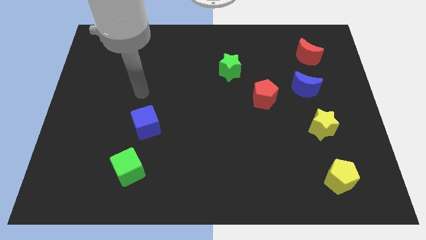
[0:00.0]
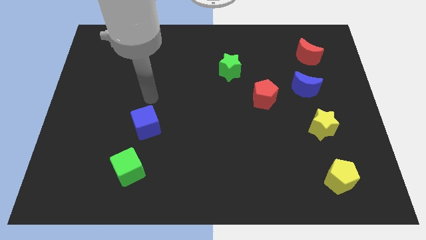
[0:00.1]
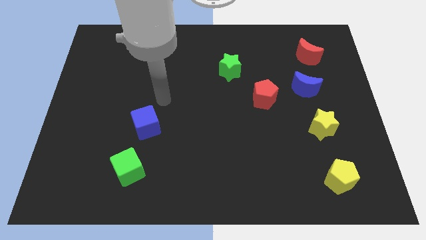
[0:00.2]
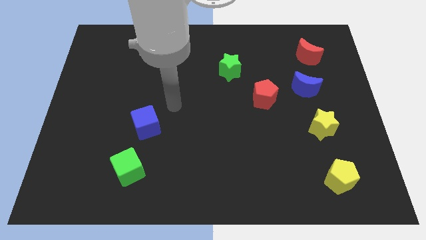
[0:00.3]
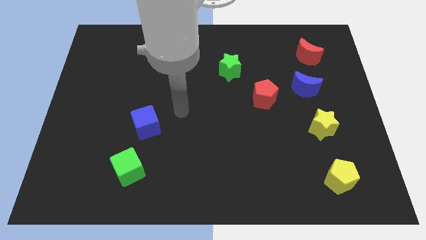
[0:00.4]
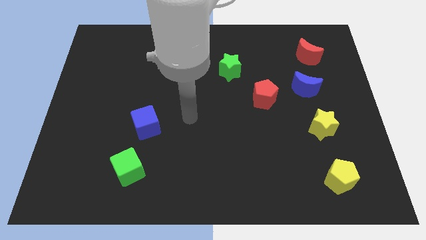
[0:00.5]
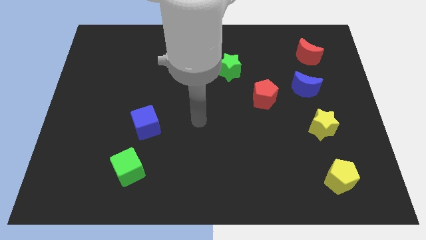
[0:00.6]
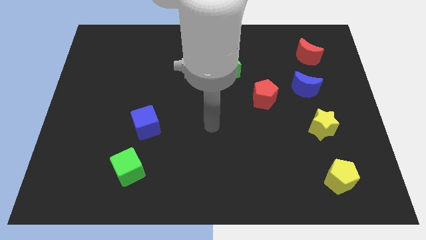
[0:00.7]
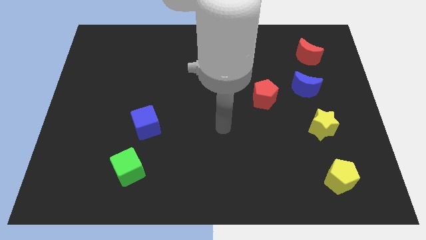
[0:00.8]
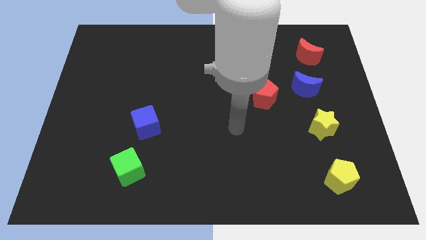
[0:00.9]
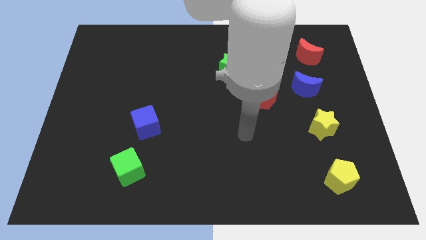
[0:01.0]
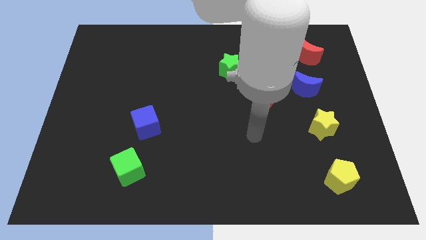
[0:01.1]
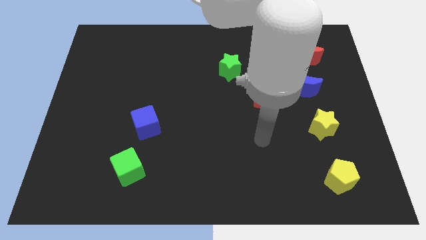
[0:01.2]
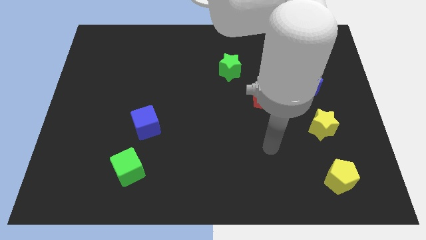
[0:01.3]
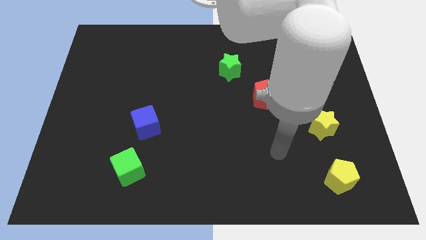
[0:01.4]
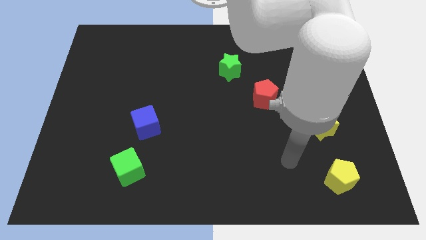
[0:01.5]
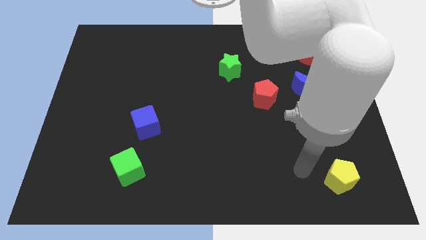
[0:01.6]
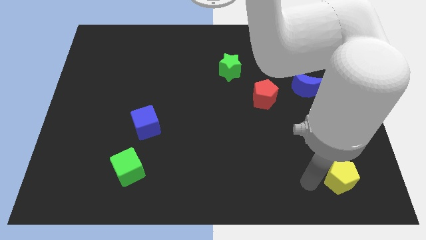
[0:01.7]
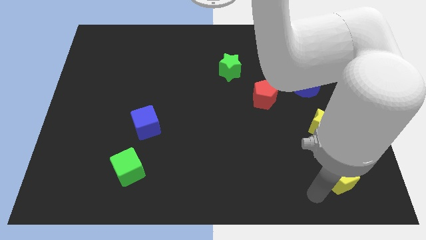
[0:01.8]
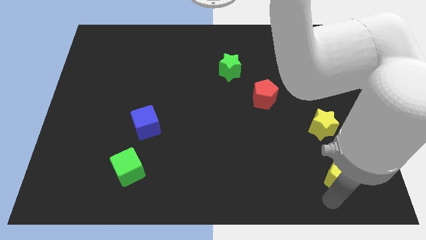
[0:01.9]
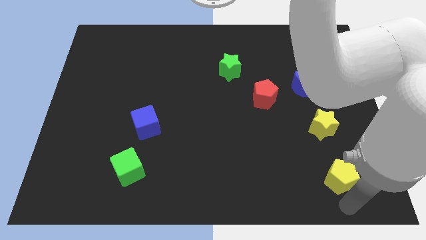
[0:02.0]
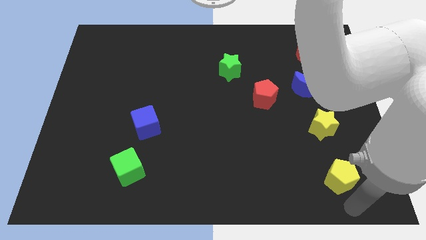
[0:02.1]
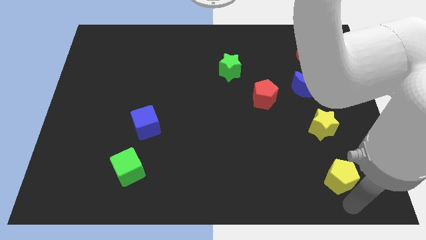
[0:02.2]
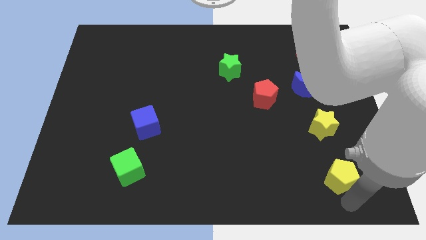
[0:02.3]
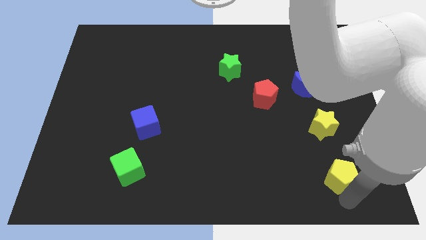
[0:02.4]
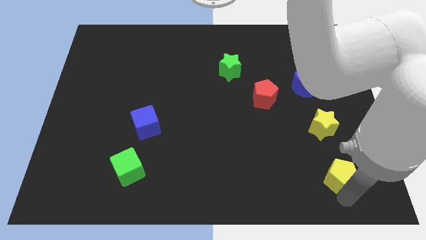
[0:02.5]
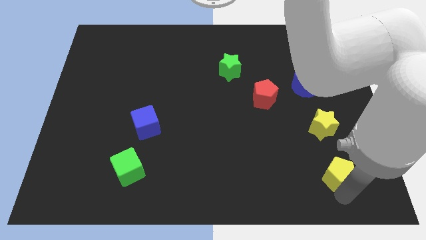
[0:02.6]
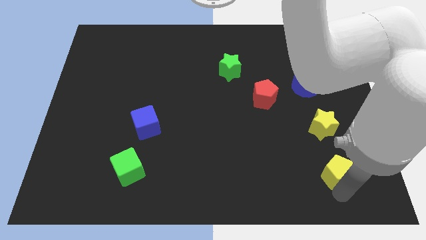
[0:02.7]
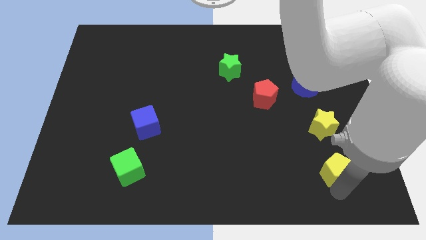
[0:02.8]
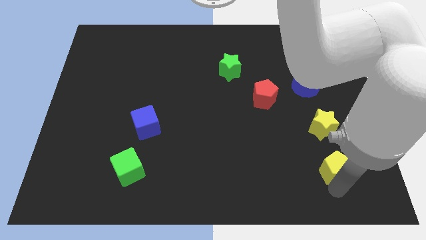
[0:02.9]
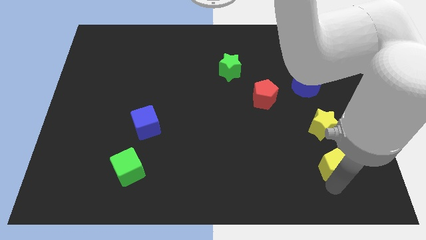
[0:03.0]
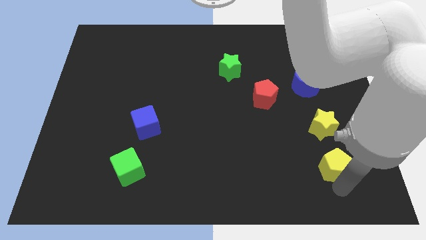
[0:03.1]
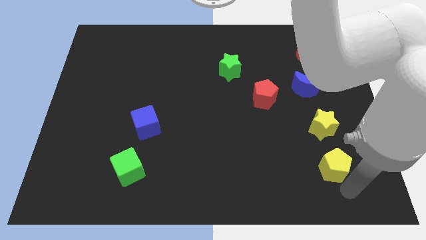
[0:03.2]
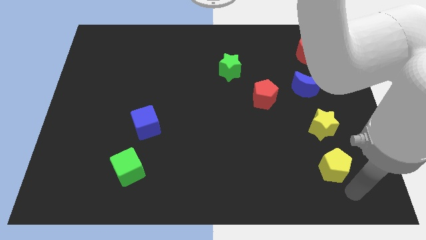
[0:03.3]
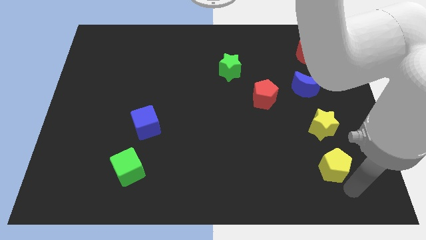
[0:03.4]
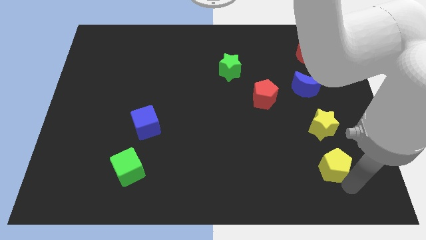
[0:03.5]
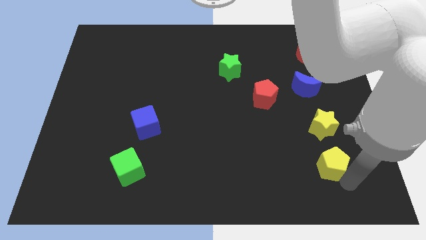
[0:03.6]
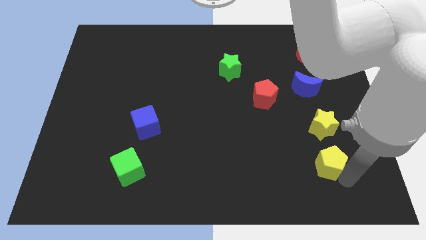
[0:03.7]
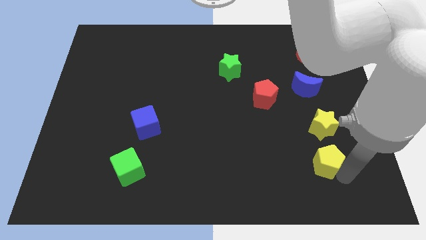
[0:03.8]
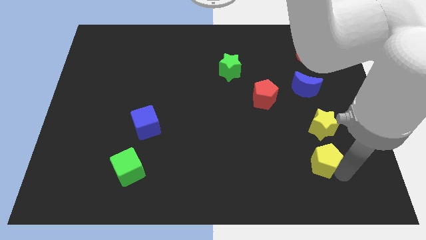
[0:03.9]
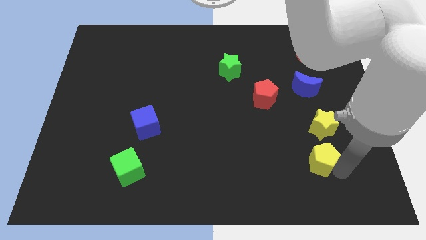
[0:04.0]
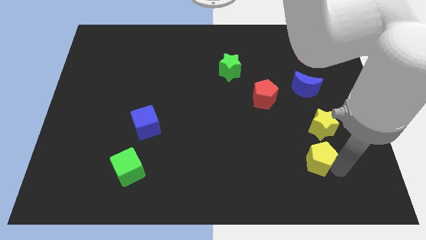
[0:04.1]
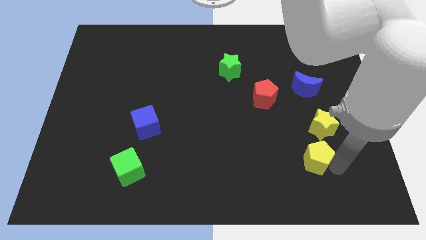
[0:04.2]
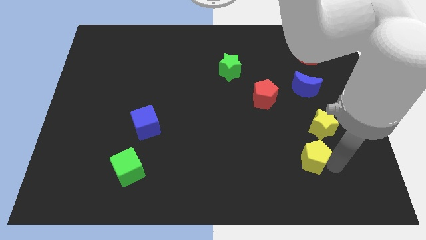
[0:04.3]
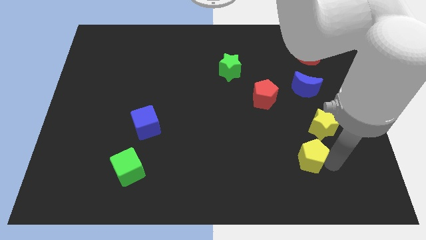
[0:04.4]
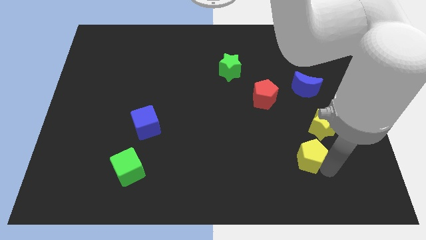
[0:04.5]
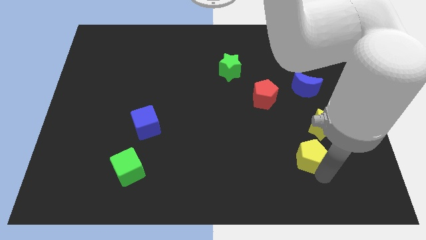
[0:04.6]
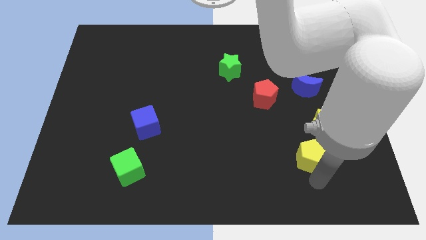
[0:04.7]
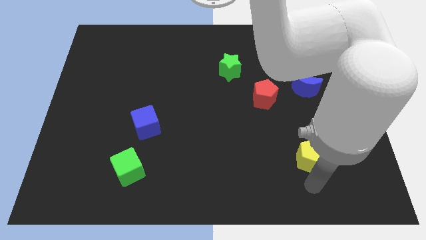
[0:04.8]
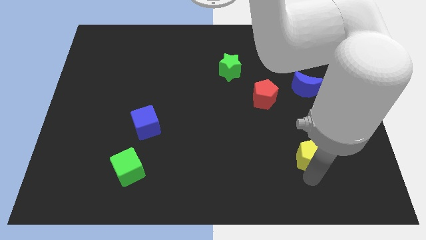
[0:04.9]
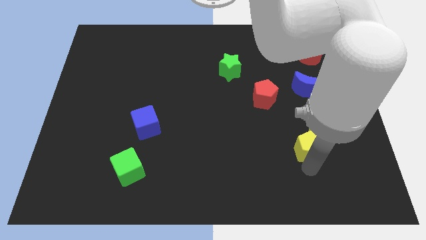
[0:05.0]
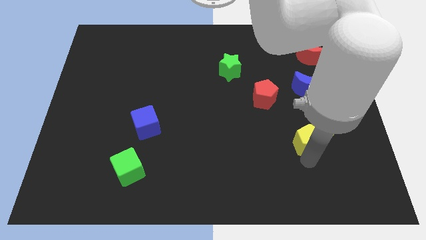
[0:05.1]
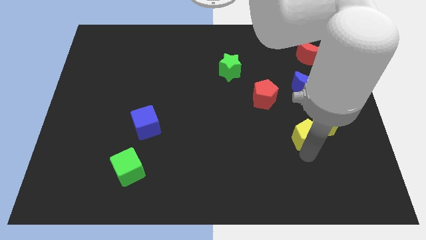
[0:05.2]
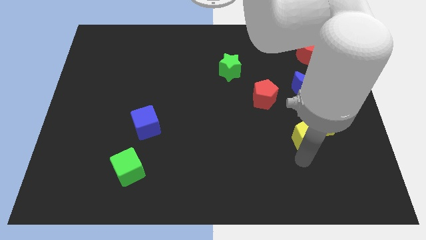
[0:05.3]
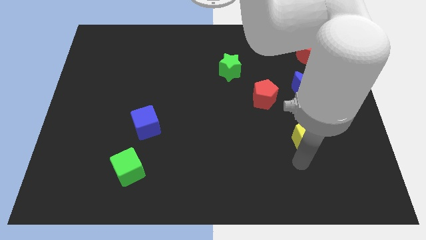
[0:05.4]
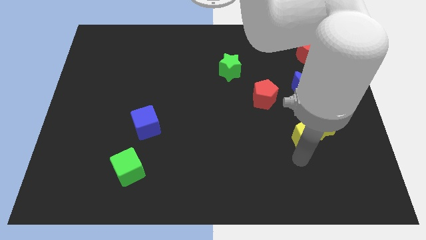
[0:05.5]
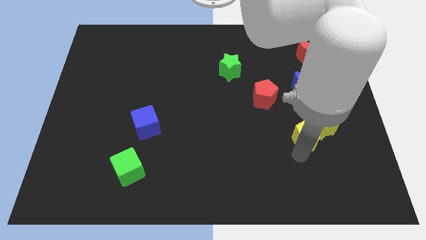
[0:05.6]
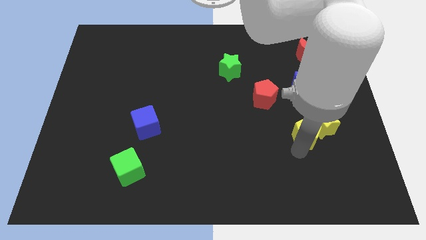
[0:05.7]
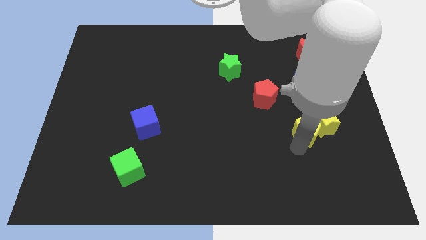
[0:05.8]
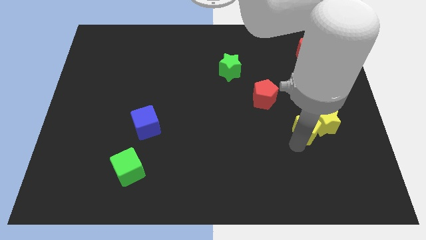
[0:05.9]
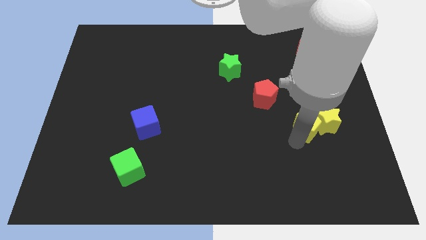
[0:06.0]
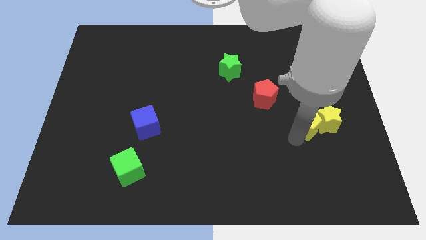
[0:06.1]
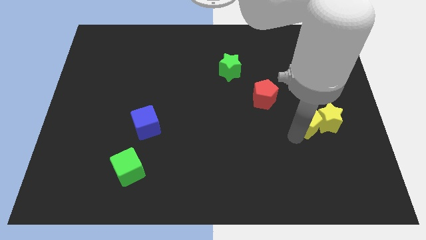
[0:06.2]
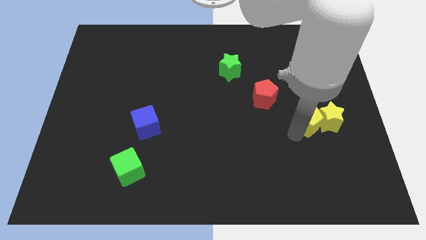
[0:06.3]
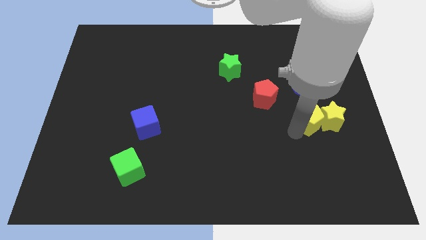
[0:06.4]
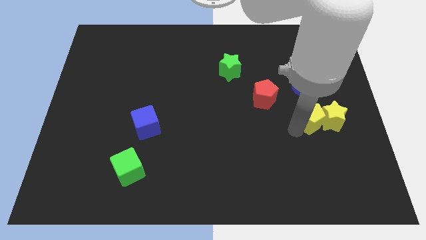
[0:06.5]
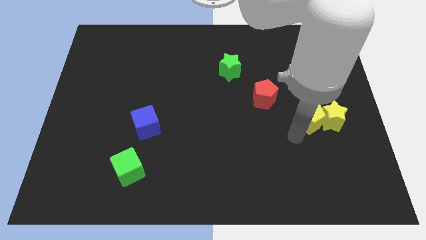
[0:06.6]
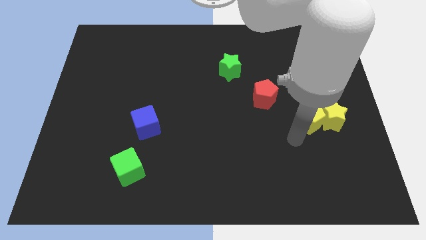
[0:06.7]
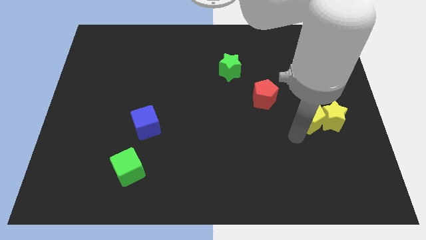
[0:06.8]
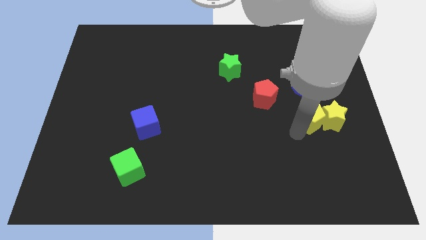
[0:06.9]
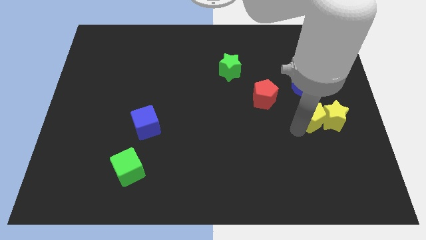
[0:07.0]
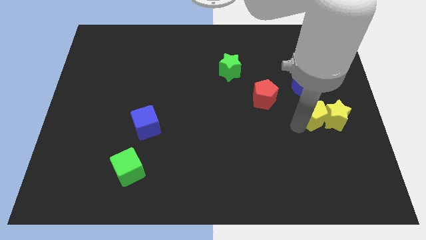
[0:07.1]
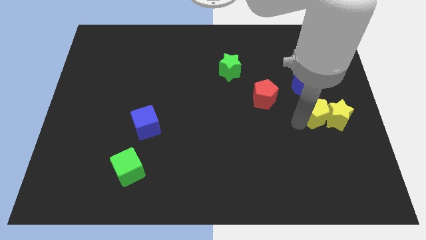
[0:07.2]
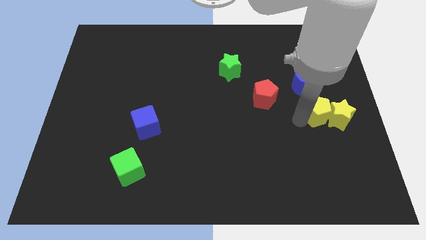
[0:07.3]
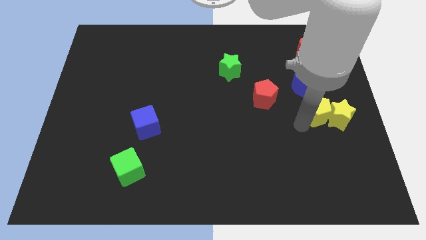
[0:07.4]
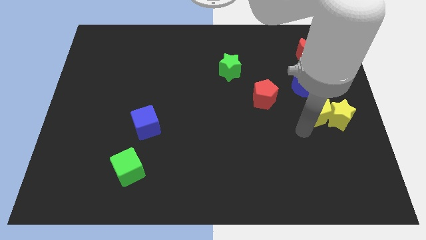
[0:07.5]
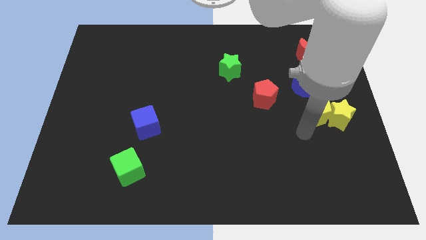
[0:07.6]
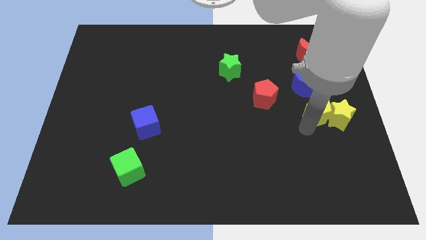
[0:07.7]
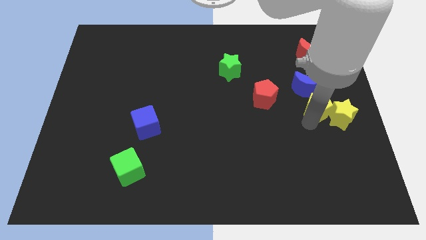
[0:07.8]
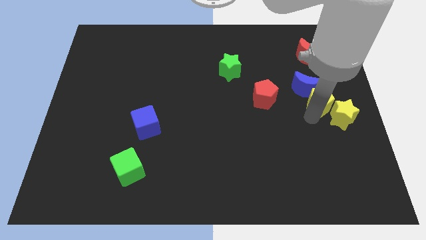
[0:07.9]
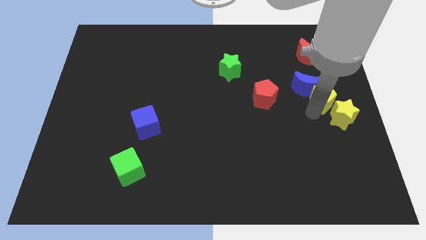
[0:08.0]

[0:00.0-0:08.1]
slide the yellow pentagon above the yellow star
